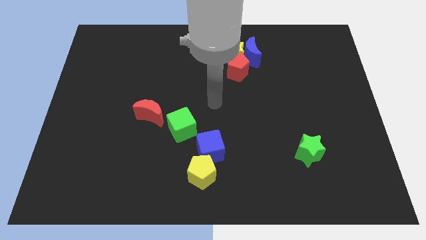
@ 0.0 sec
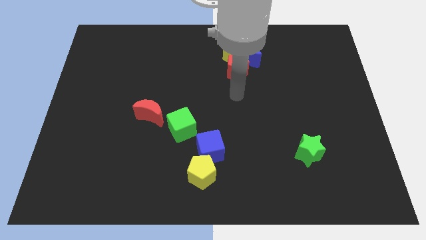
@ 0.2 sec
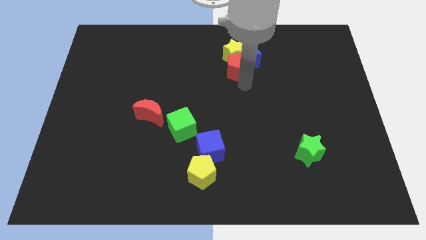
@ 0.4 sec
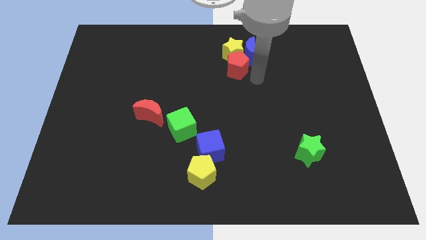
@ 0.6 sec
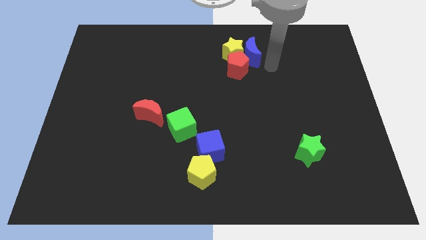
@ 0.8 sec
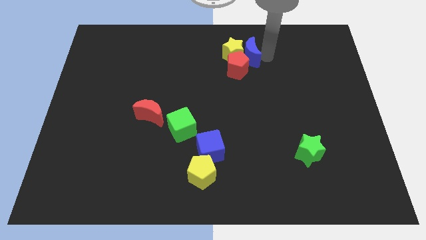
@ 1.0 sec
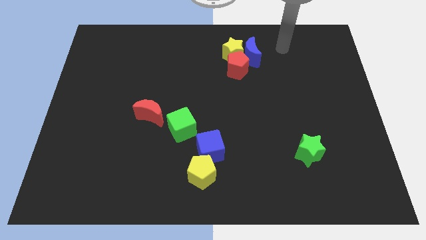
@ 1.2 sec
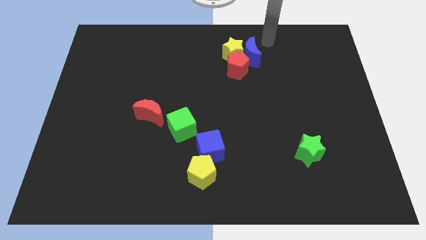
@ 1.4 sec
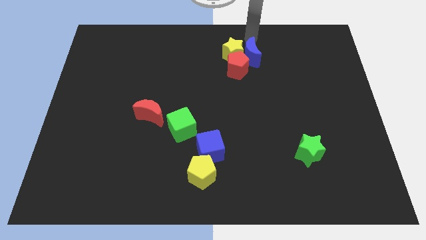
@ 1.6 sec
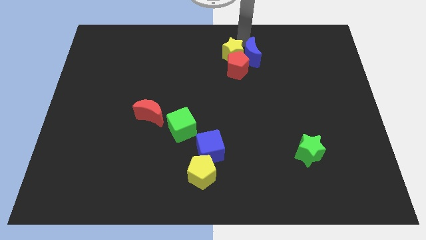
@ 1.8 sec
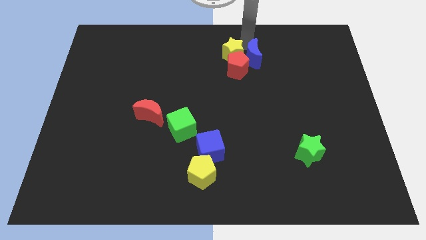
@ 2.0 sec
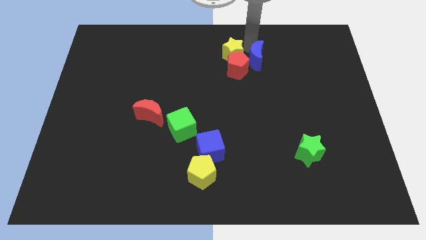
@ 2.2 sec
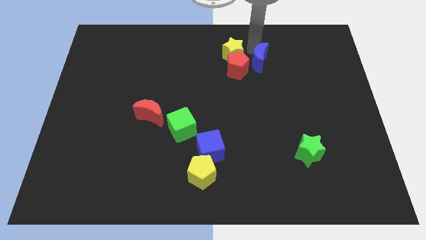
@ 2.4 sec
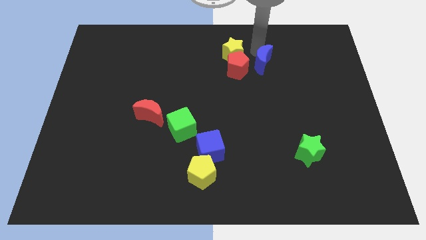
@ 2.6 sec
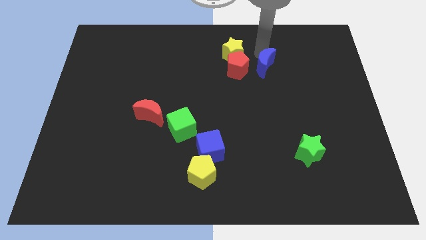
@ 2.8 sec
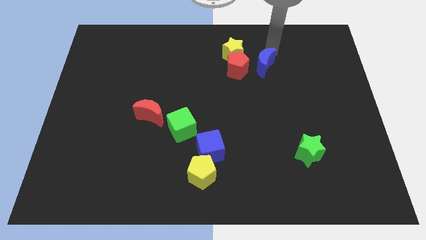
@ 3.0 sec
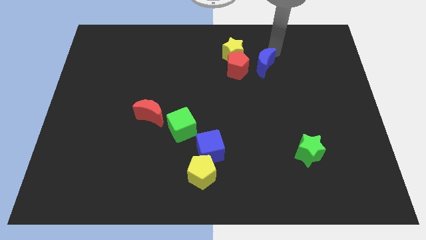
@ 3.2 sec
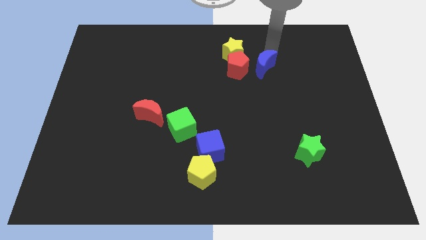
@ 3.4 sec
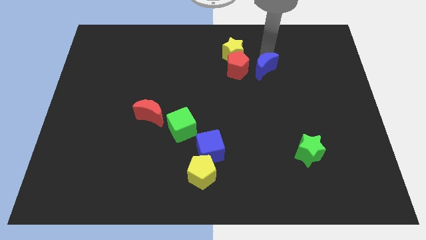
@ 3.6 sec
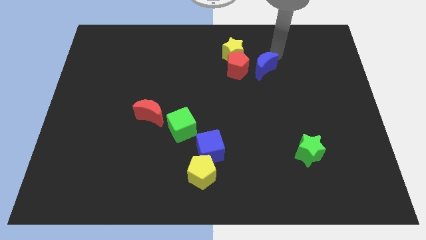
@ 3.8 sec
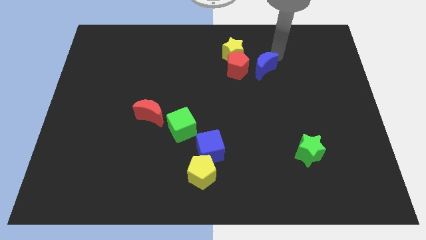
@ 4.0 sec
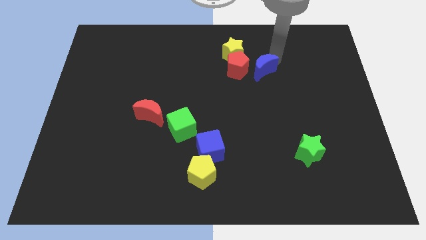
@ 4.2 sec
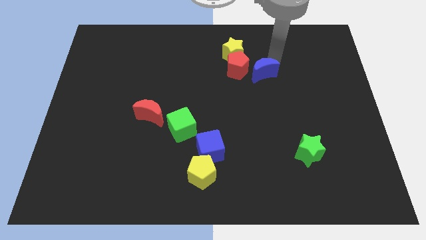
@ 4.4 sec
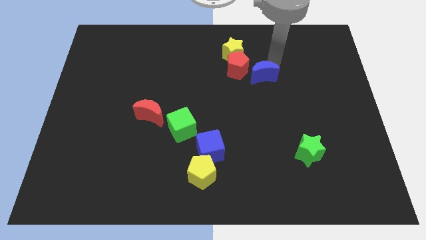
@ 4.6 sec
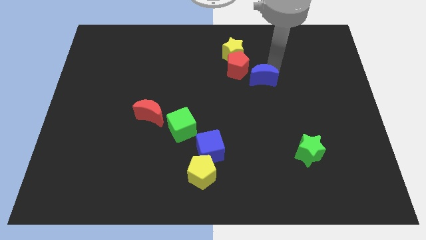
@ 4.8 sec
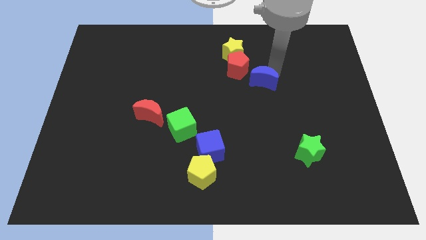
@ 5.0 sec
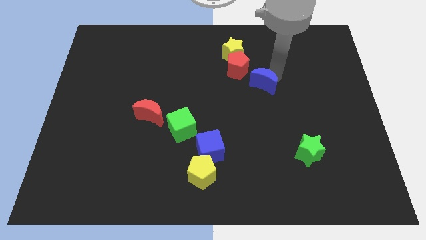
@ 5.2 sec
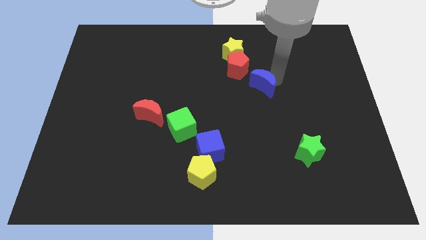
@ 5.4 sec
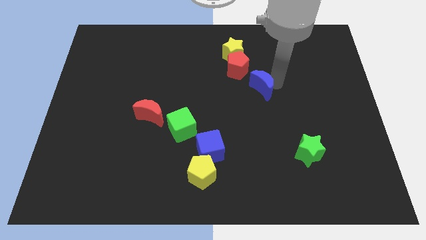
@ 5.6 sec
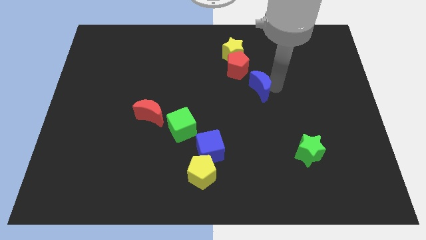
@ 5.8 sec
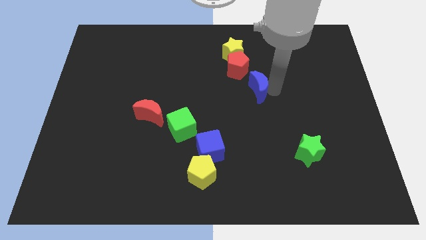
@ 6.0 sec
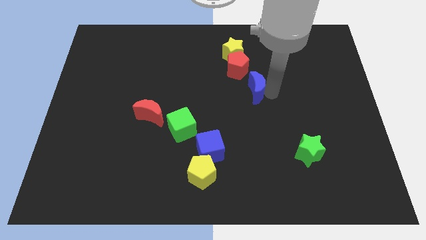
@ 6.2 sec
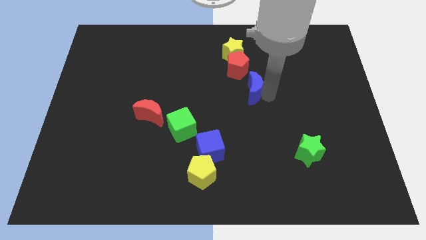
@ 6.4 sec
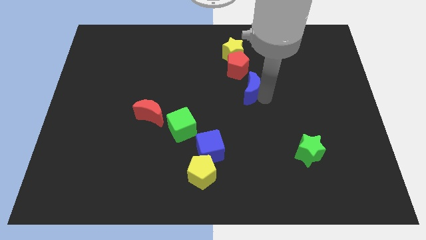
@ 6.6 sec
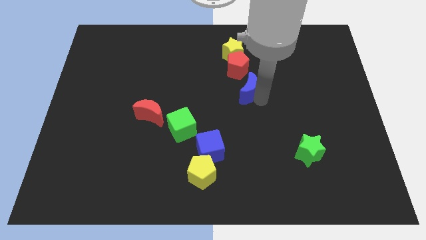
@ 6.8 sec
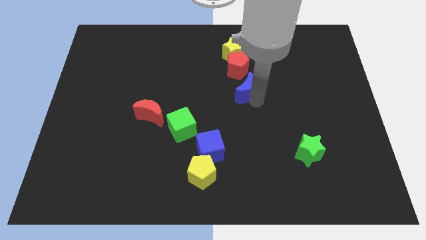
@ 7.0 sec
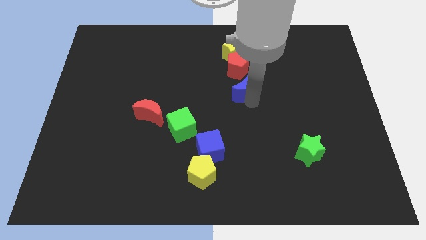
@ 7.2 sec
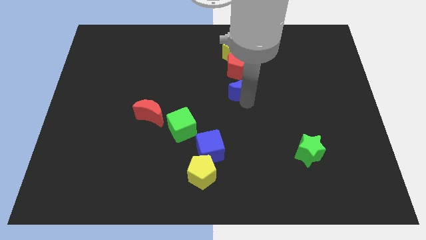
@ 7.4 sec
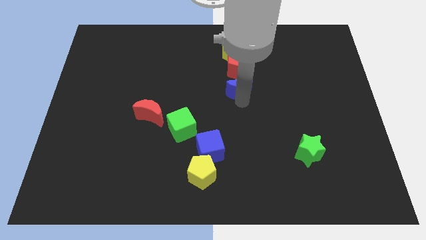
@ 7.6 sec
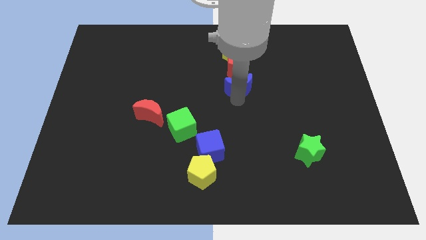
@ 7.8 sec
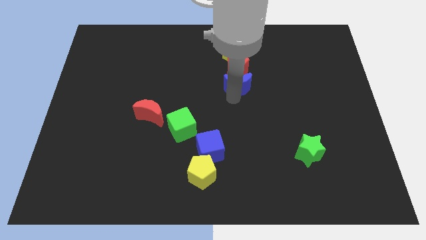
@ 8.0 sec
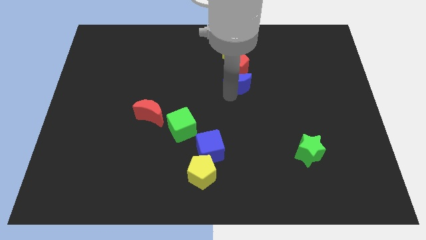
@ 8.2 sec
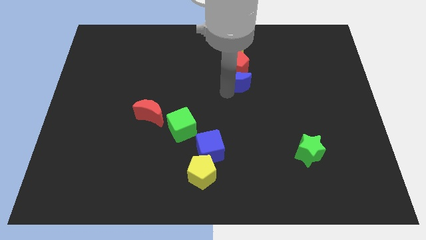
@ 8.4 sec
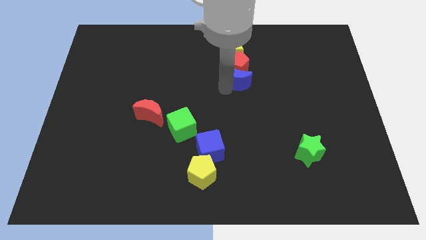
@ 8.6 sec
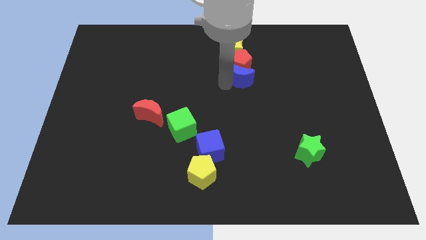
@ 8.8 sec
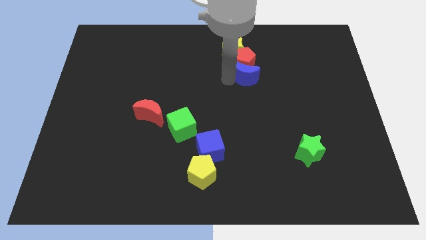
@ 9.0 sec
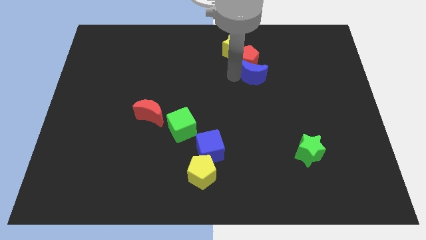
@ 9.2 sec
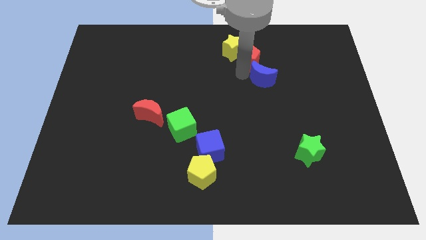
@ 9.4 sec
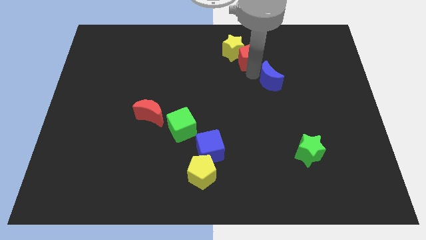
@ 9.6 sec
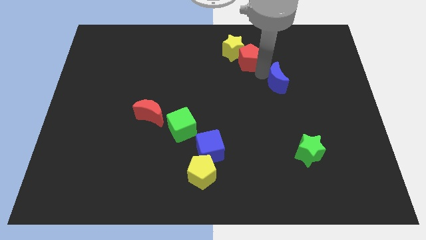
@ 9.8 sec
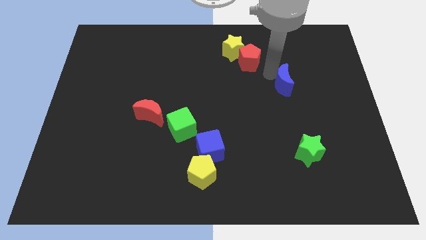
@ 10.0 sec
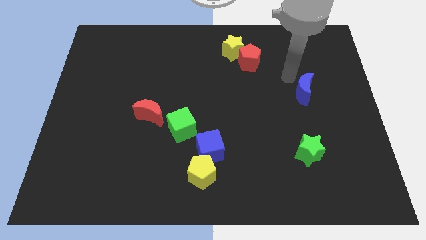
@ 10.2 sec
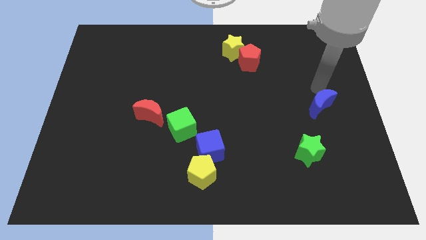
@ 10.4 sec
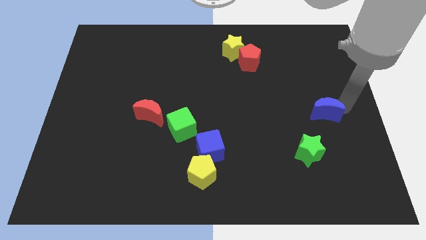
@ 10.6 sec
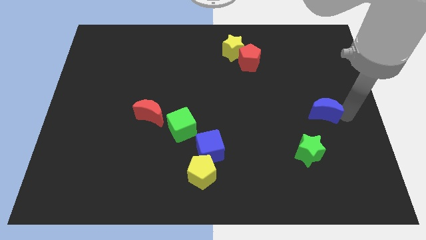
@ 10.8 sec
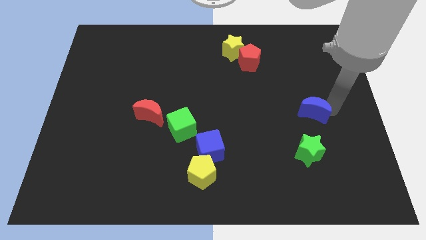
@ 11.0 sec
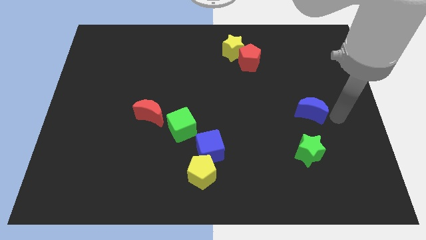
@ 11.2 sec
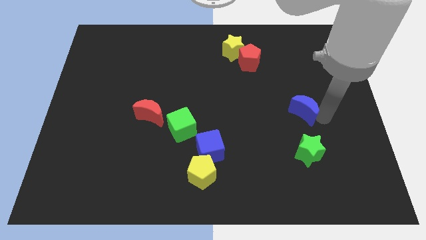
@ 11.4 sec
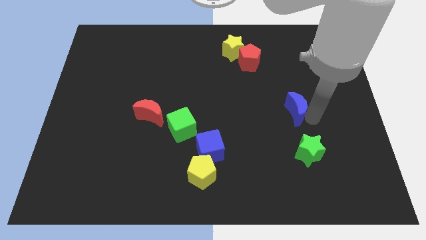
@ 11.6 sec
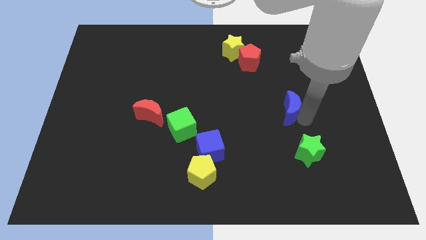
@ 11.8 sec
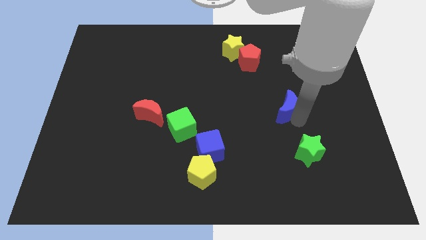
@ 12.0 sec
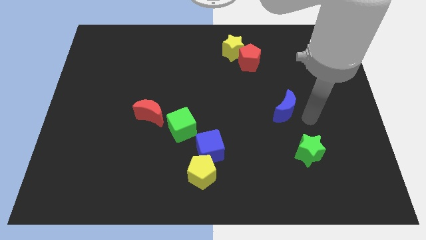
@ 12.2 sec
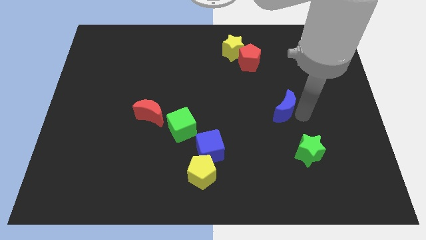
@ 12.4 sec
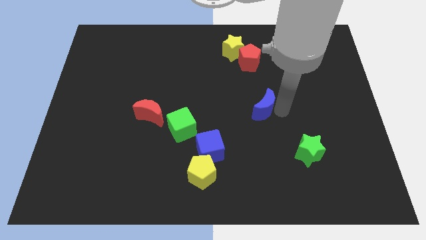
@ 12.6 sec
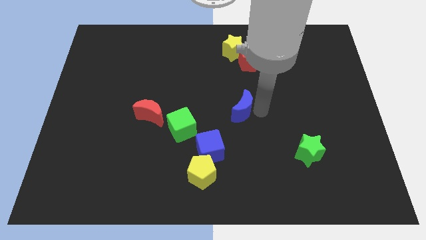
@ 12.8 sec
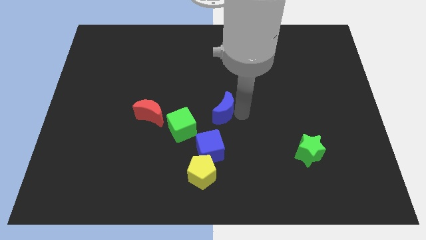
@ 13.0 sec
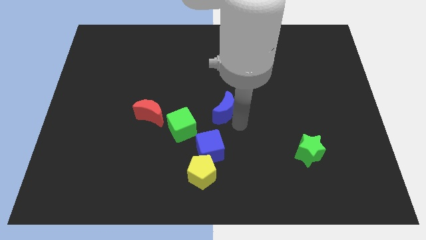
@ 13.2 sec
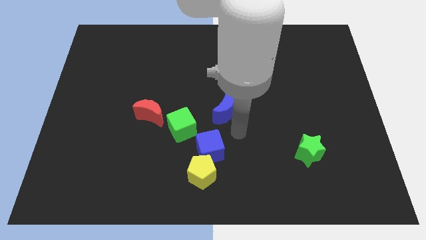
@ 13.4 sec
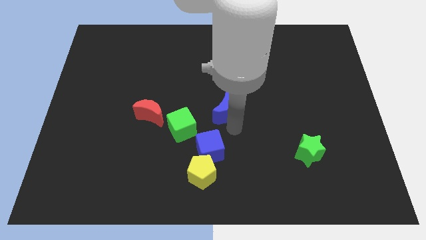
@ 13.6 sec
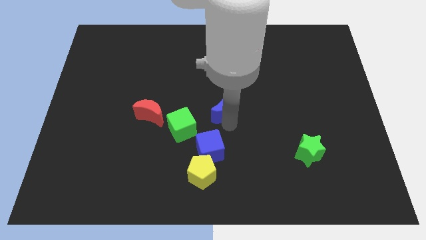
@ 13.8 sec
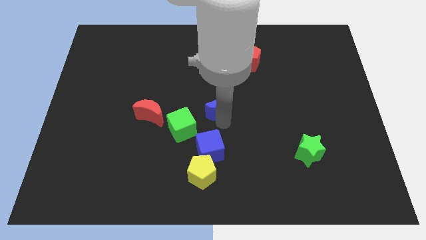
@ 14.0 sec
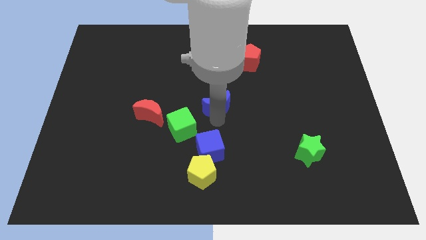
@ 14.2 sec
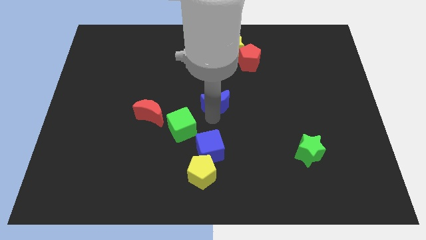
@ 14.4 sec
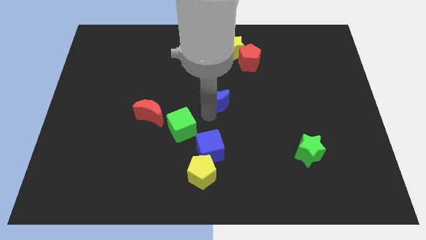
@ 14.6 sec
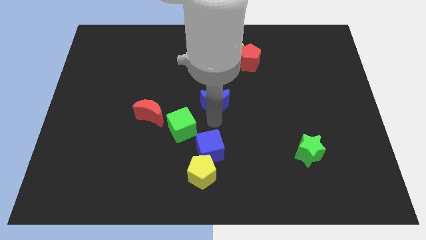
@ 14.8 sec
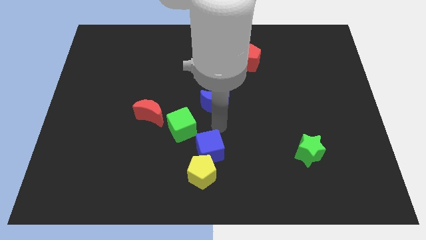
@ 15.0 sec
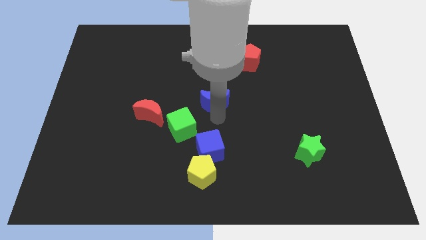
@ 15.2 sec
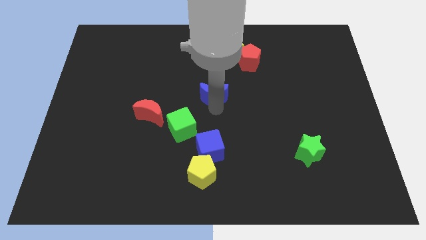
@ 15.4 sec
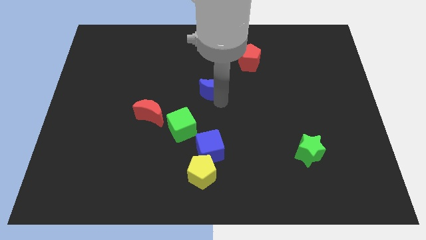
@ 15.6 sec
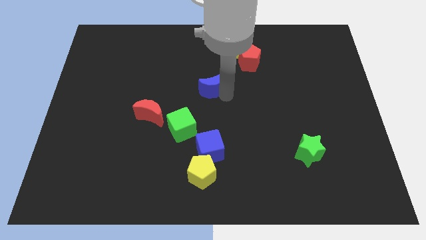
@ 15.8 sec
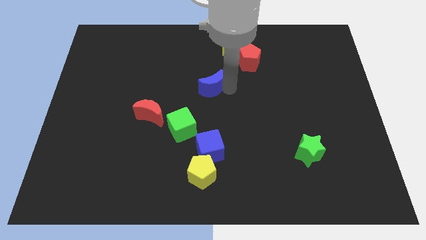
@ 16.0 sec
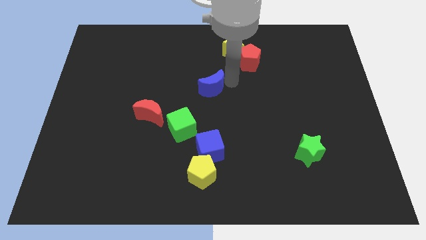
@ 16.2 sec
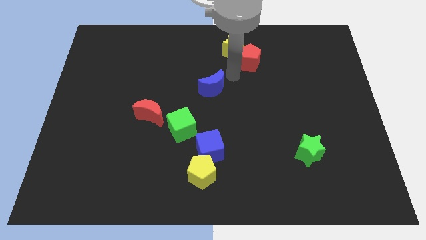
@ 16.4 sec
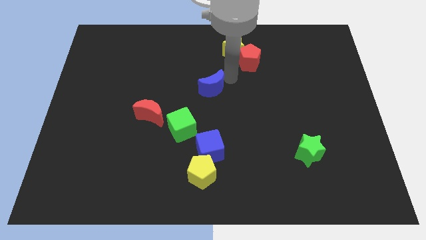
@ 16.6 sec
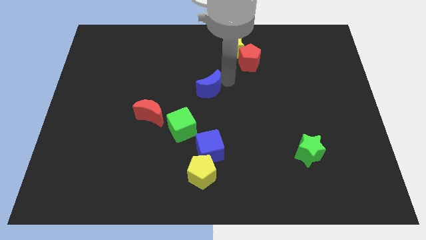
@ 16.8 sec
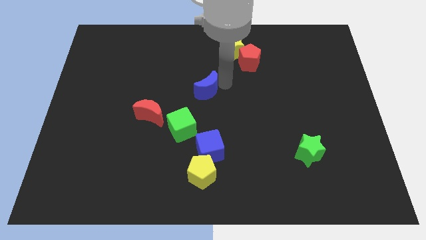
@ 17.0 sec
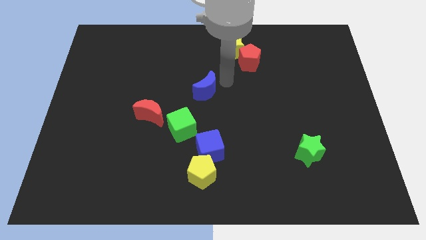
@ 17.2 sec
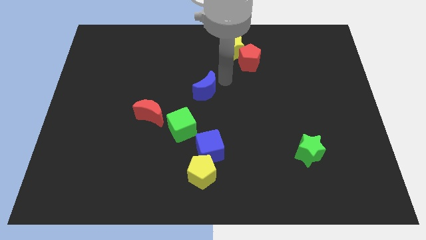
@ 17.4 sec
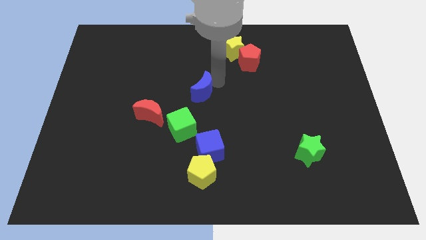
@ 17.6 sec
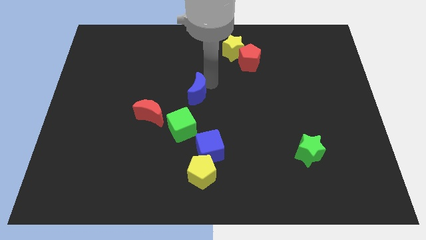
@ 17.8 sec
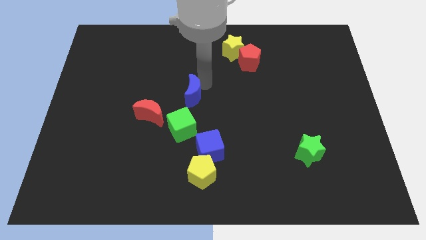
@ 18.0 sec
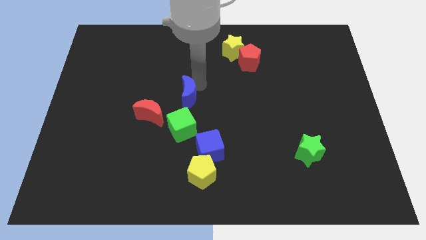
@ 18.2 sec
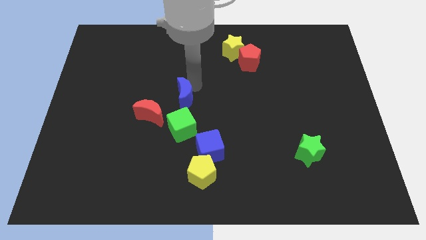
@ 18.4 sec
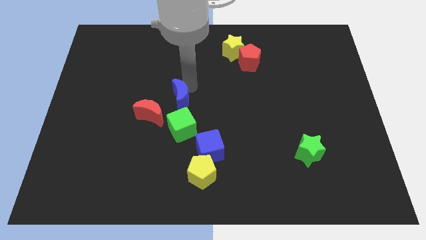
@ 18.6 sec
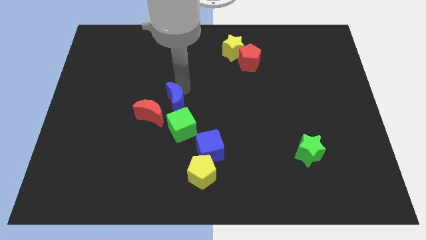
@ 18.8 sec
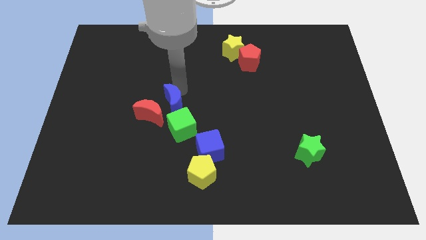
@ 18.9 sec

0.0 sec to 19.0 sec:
move the blue moon next to the red moon
